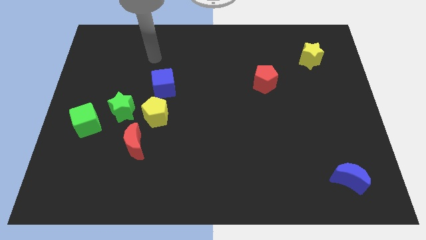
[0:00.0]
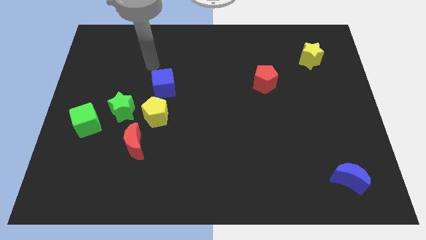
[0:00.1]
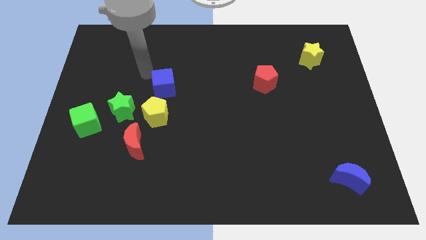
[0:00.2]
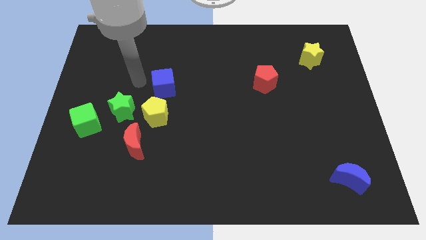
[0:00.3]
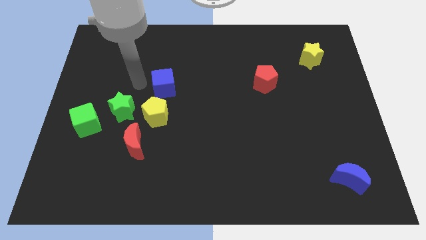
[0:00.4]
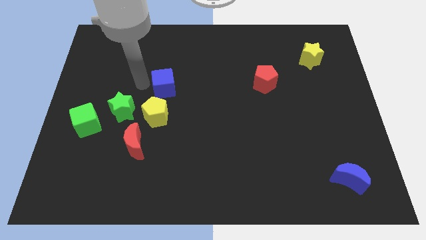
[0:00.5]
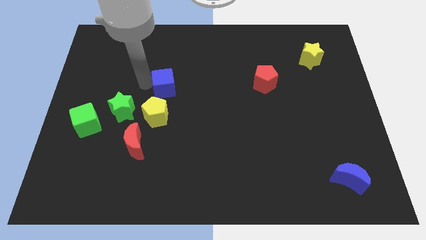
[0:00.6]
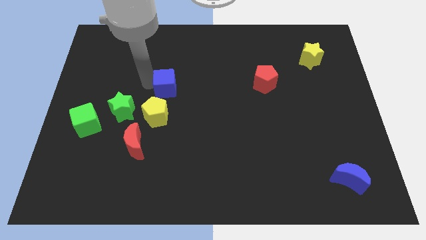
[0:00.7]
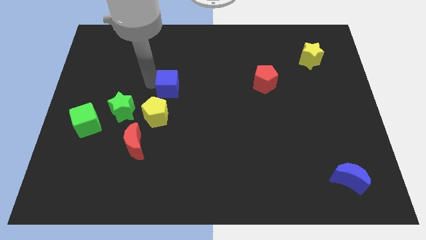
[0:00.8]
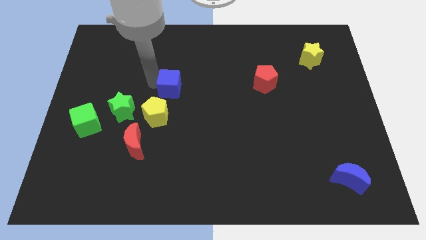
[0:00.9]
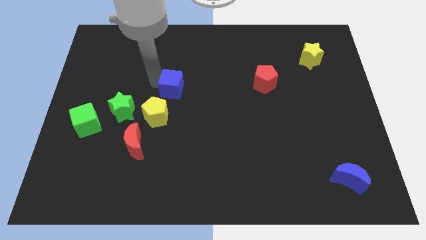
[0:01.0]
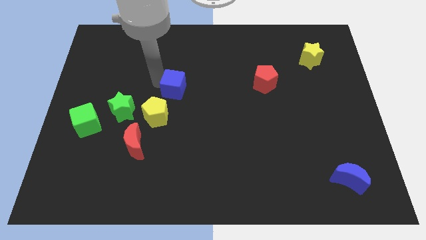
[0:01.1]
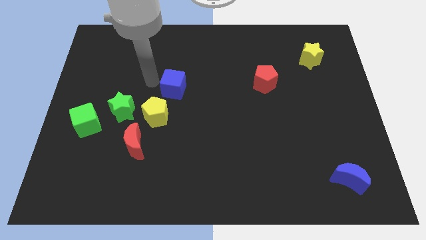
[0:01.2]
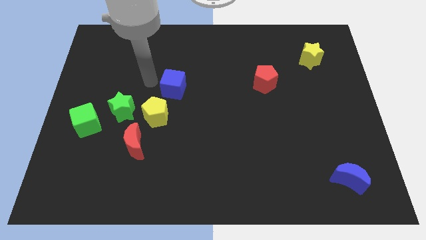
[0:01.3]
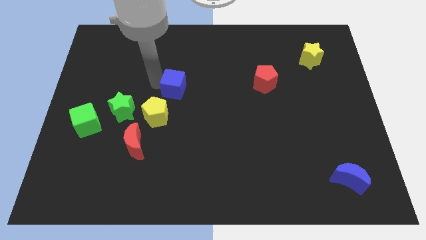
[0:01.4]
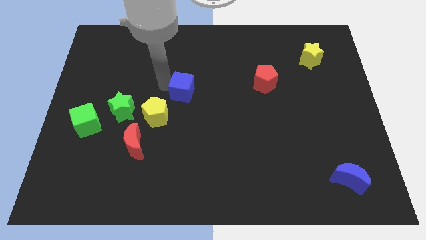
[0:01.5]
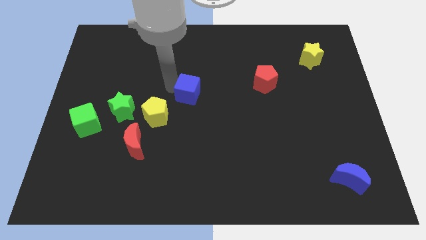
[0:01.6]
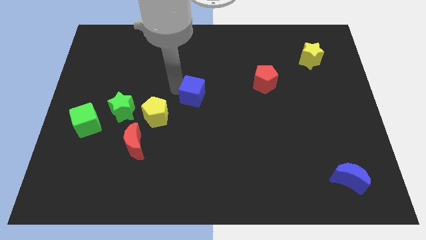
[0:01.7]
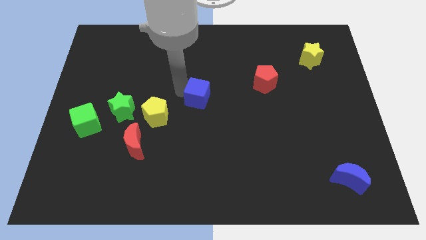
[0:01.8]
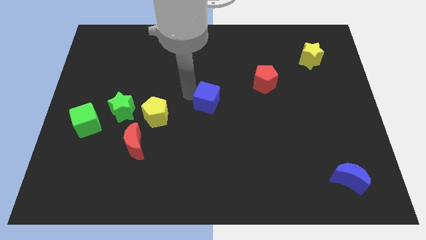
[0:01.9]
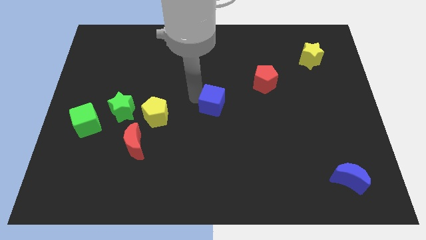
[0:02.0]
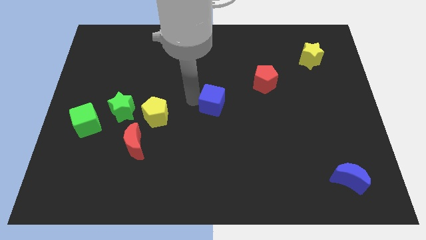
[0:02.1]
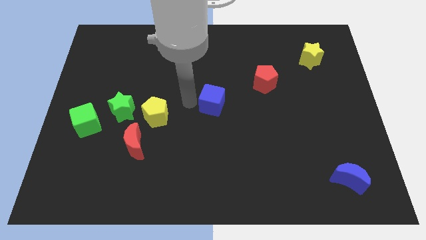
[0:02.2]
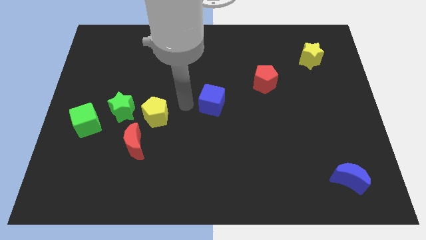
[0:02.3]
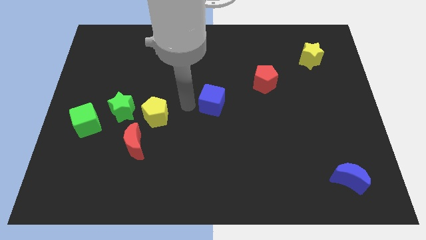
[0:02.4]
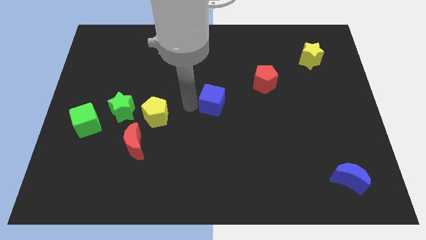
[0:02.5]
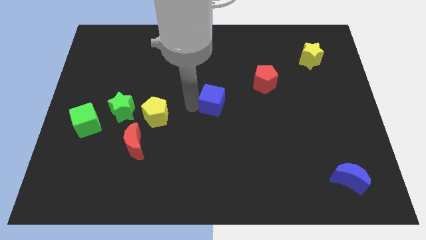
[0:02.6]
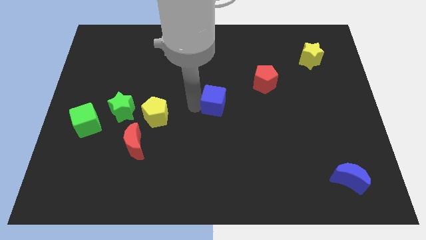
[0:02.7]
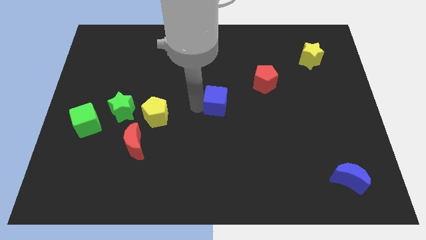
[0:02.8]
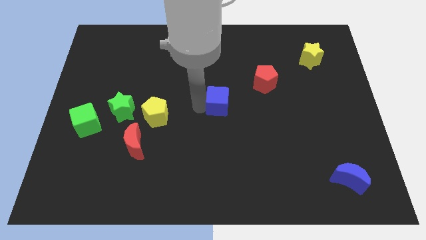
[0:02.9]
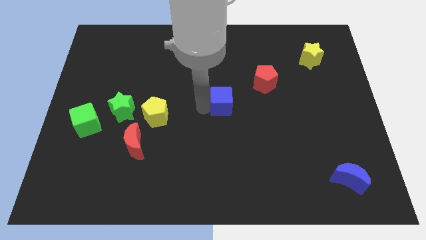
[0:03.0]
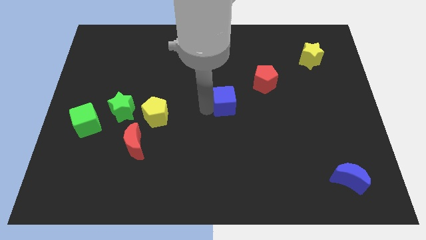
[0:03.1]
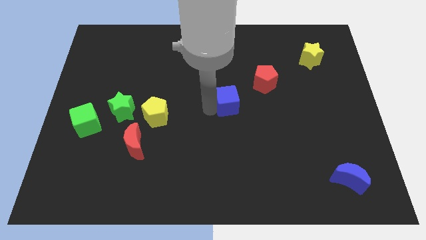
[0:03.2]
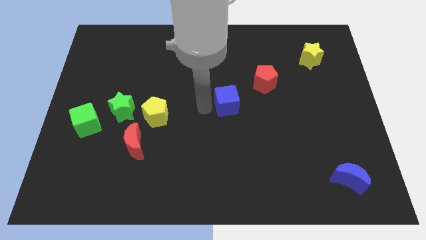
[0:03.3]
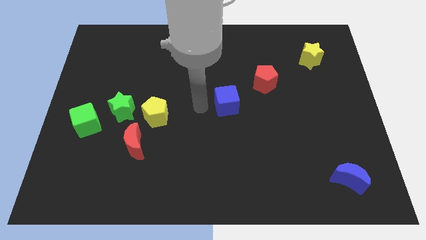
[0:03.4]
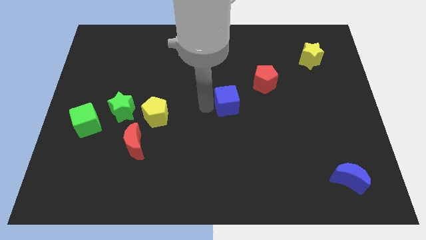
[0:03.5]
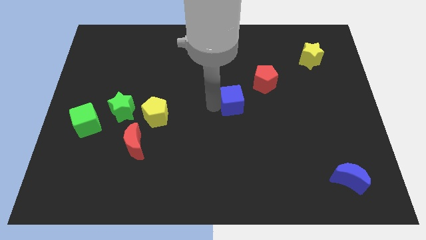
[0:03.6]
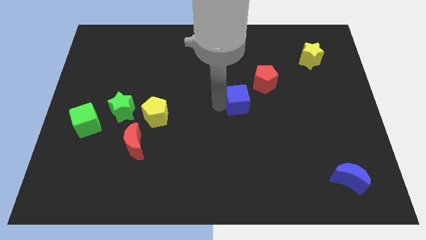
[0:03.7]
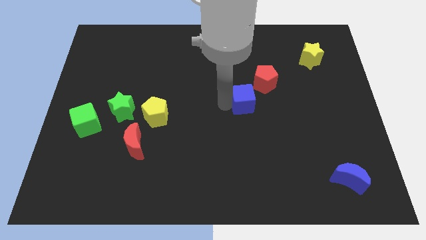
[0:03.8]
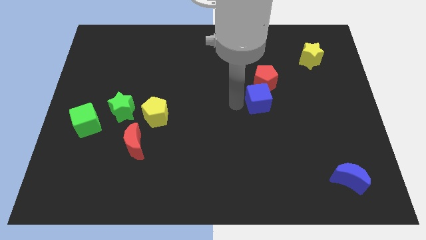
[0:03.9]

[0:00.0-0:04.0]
push the blue cube to the right

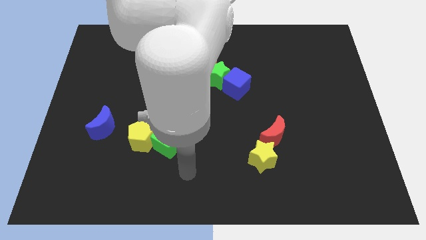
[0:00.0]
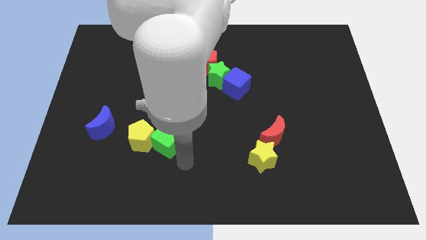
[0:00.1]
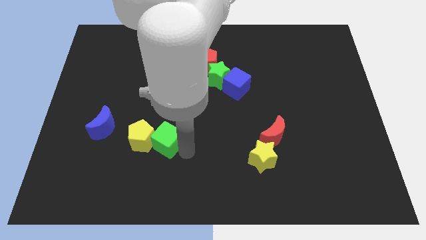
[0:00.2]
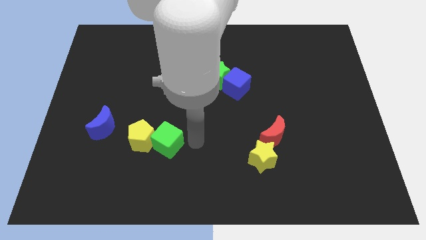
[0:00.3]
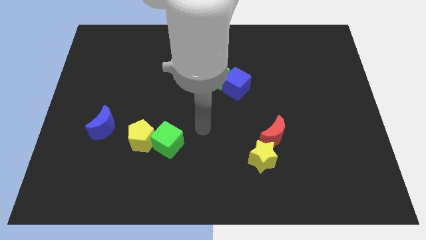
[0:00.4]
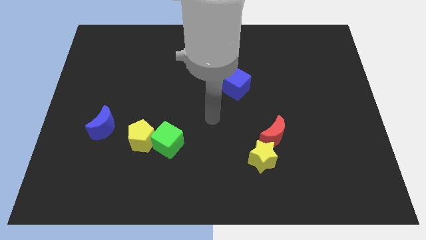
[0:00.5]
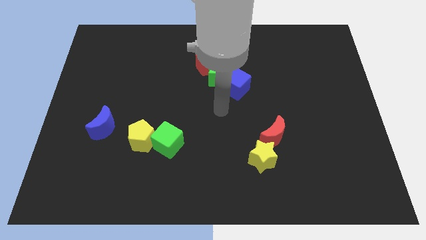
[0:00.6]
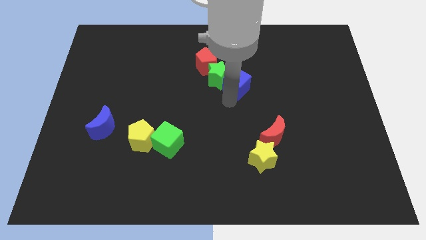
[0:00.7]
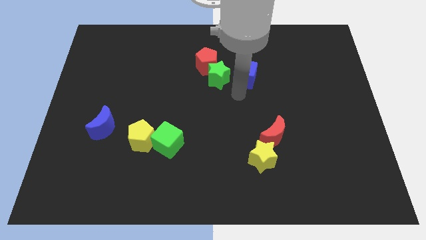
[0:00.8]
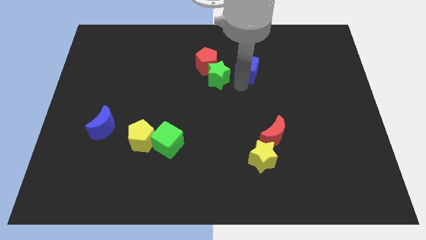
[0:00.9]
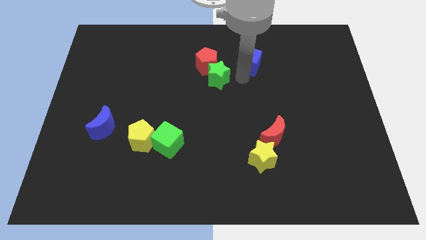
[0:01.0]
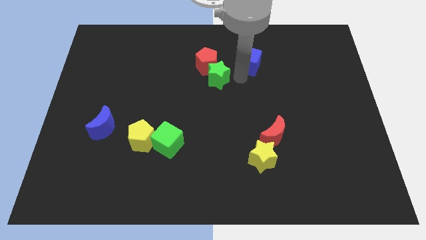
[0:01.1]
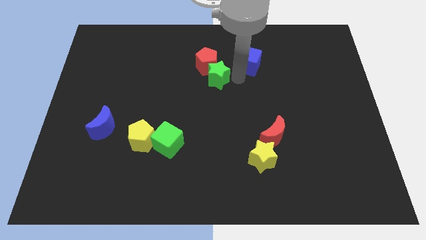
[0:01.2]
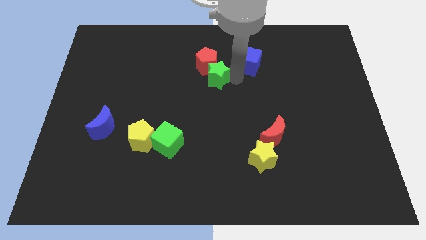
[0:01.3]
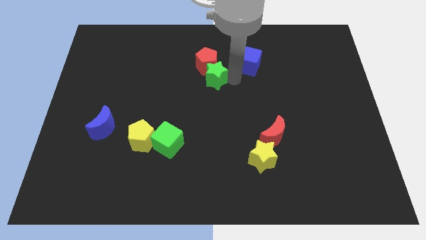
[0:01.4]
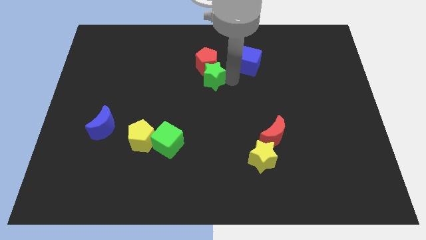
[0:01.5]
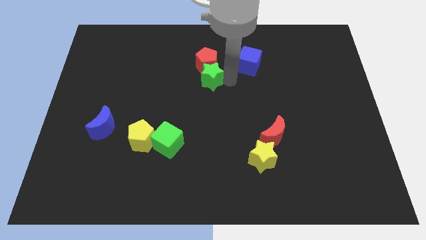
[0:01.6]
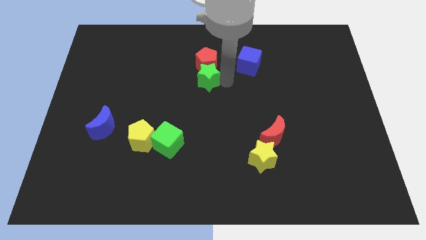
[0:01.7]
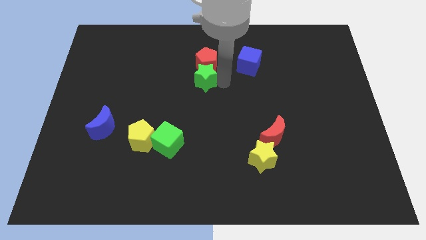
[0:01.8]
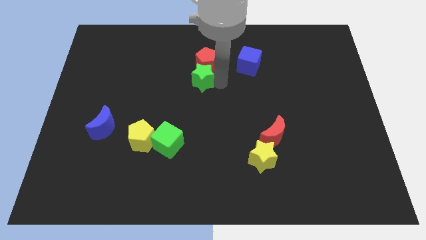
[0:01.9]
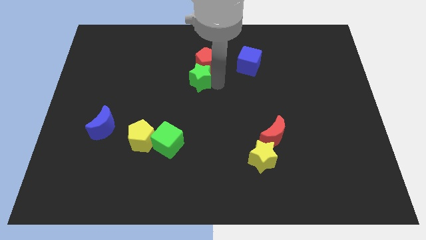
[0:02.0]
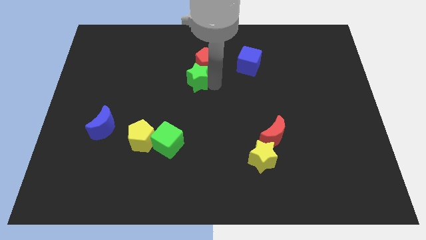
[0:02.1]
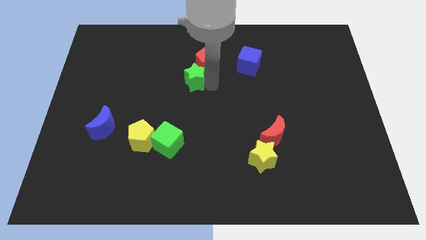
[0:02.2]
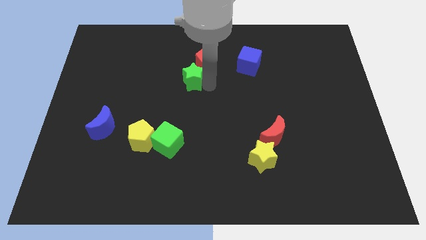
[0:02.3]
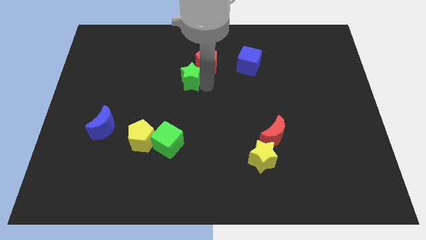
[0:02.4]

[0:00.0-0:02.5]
slide the green star to the left a little bit

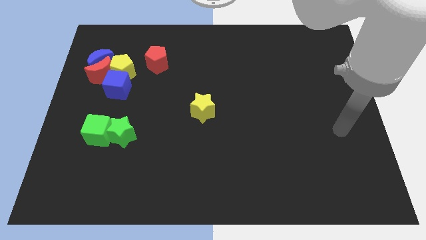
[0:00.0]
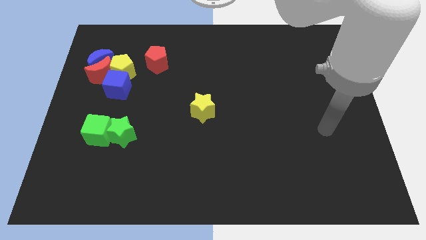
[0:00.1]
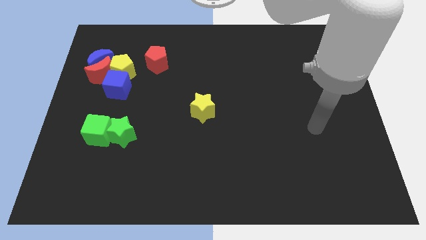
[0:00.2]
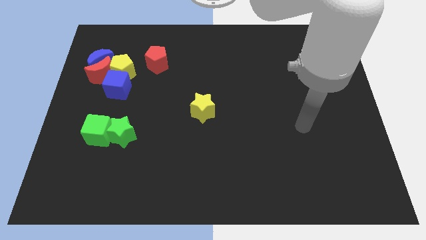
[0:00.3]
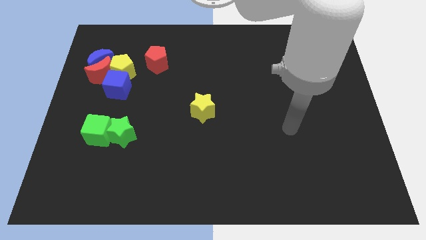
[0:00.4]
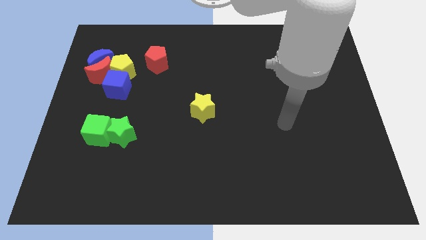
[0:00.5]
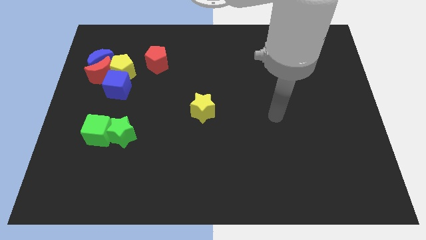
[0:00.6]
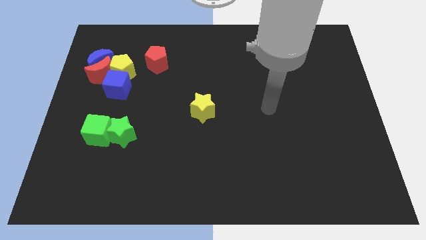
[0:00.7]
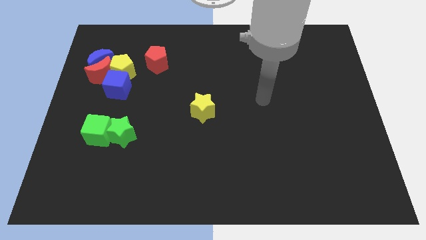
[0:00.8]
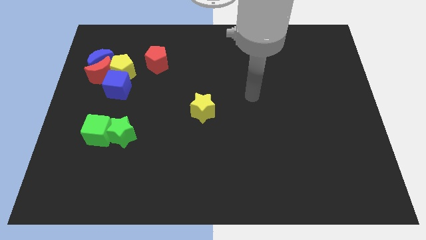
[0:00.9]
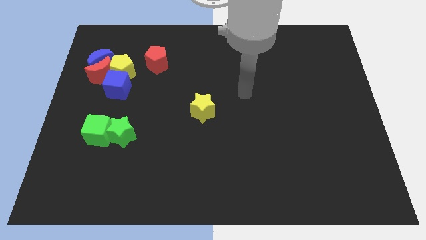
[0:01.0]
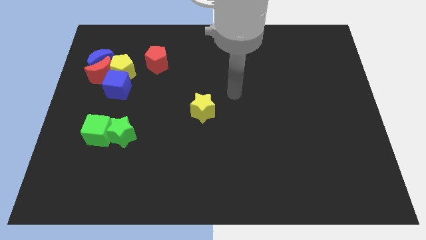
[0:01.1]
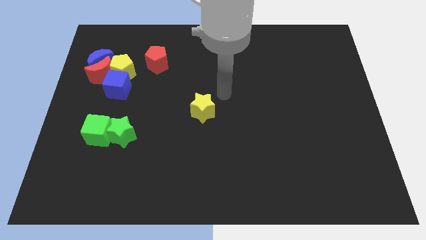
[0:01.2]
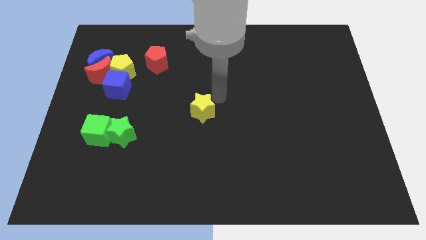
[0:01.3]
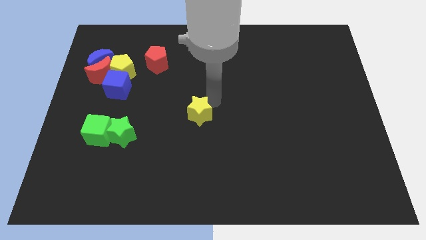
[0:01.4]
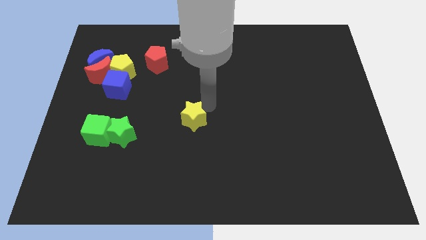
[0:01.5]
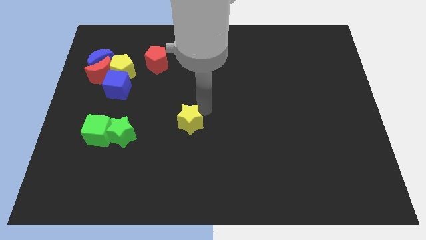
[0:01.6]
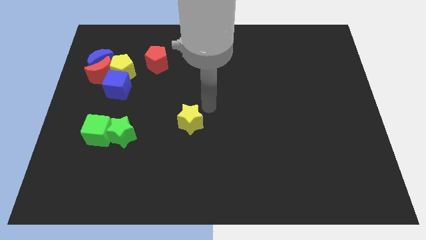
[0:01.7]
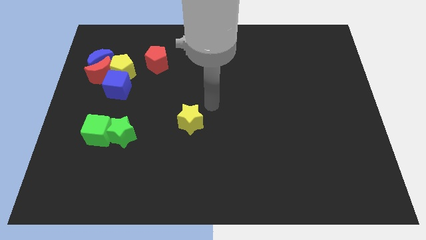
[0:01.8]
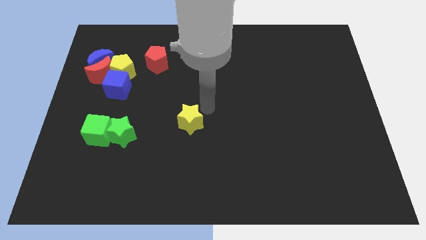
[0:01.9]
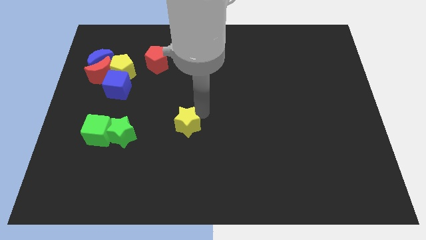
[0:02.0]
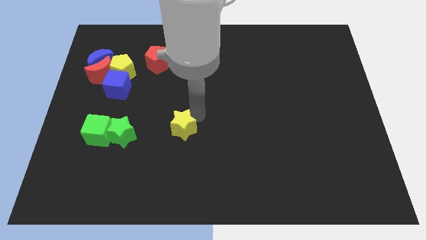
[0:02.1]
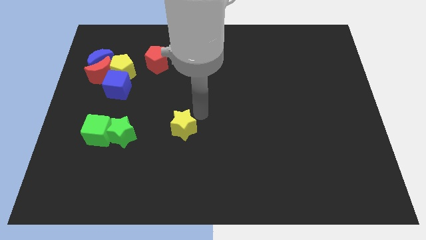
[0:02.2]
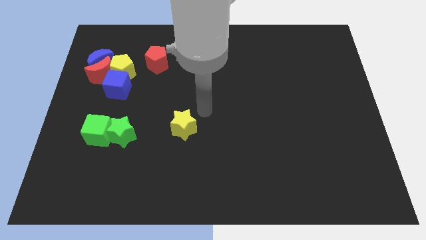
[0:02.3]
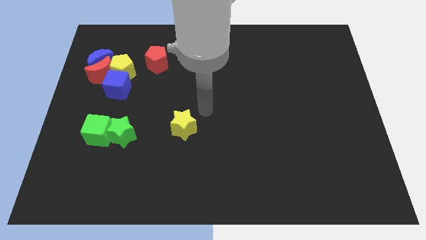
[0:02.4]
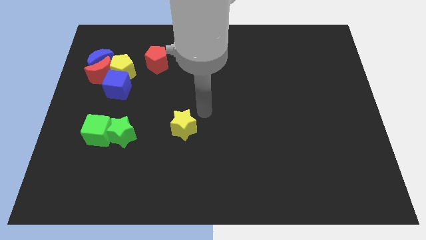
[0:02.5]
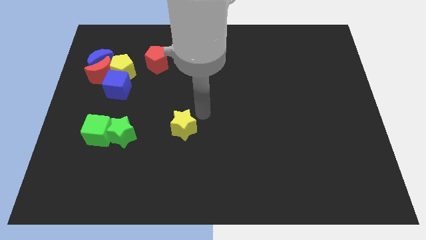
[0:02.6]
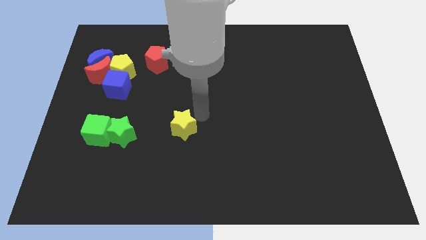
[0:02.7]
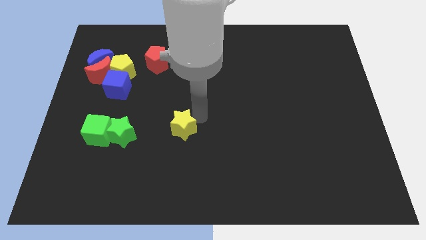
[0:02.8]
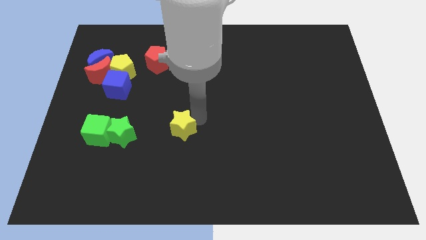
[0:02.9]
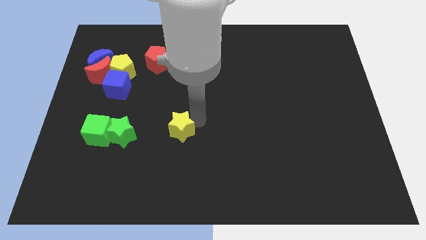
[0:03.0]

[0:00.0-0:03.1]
slide the yellow star a little downwards and left diagonally
